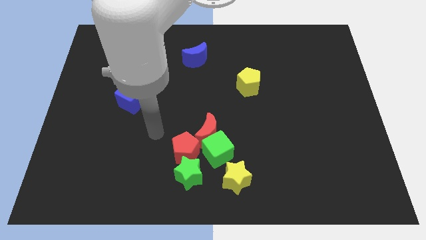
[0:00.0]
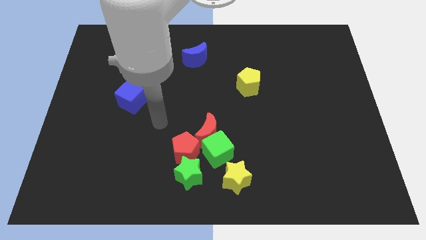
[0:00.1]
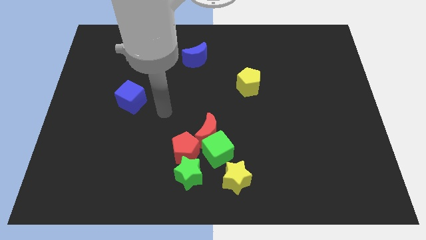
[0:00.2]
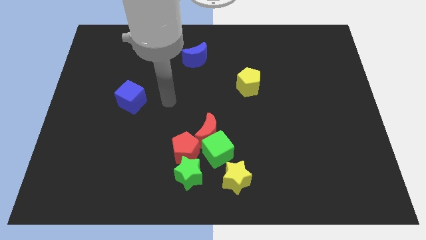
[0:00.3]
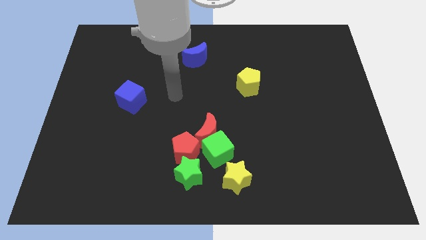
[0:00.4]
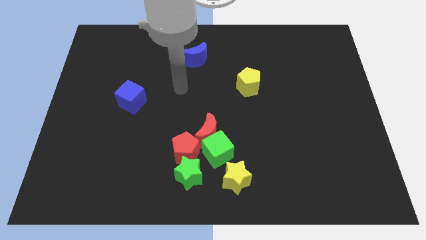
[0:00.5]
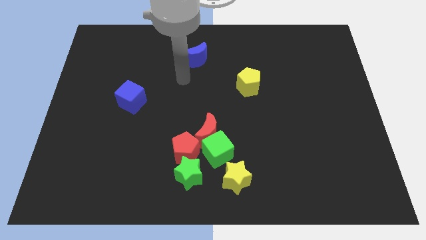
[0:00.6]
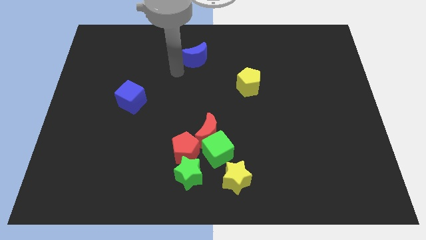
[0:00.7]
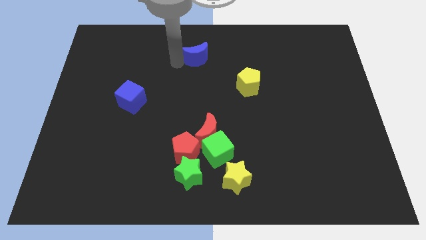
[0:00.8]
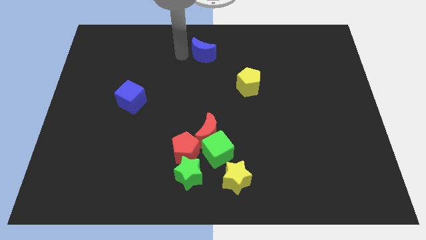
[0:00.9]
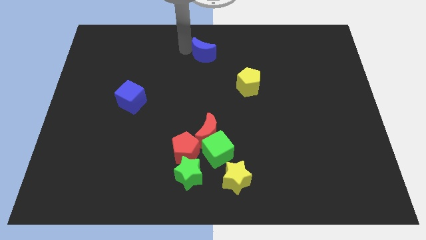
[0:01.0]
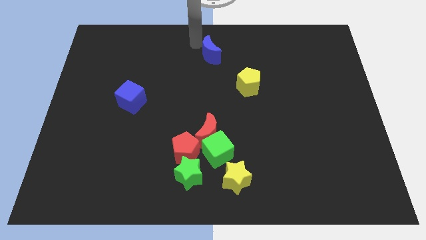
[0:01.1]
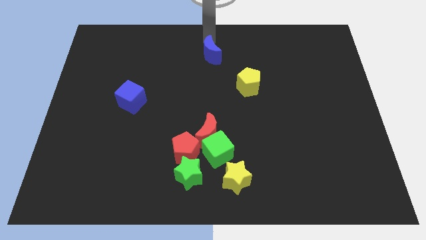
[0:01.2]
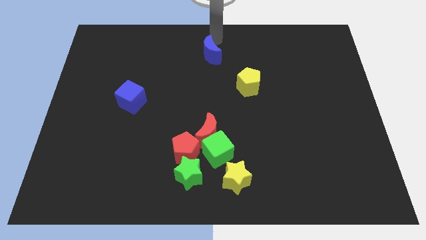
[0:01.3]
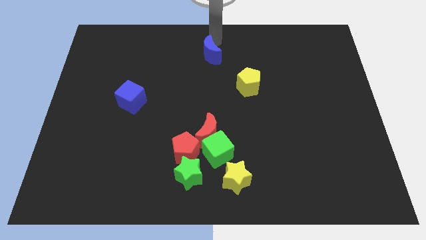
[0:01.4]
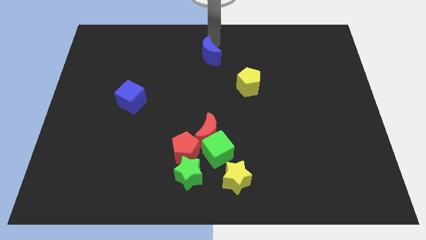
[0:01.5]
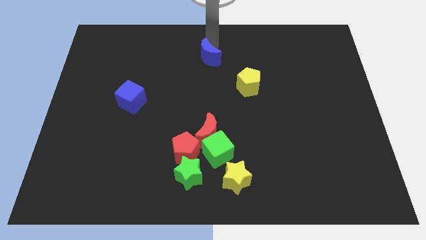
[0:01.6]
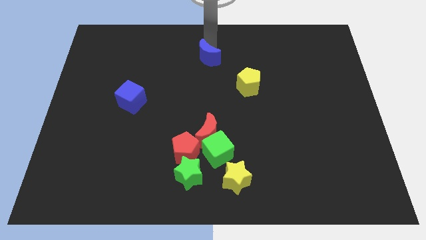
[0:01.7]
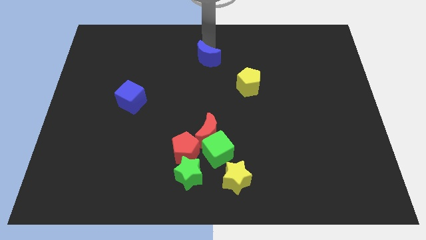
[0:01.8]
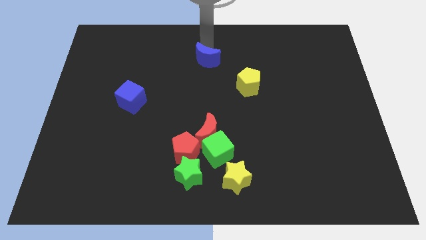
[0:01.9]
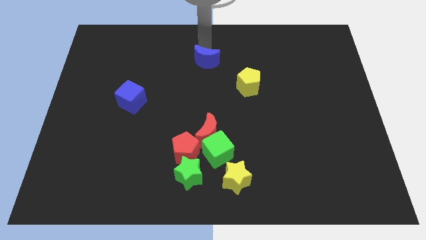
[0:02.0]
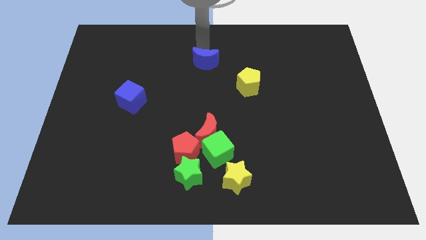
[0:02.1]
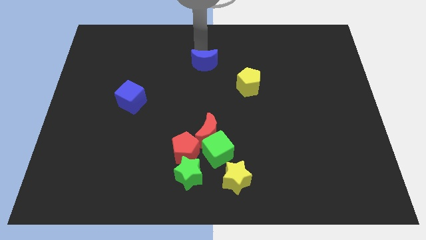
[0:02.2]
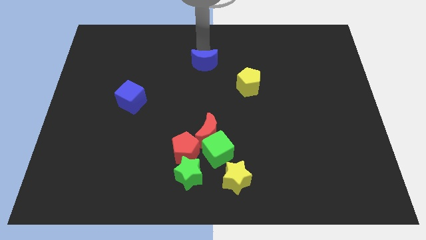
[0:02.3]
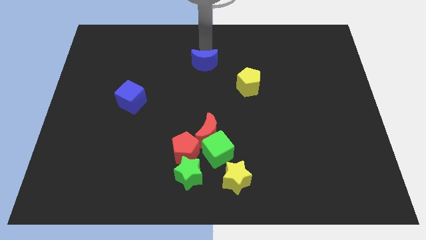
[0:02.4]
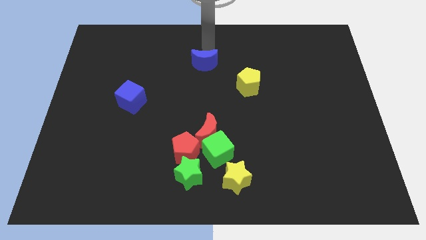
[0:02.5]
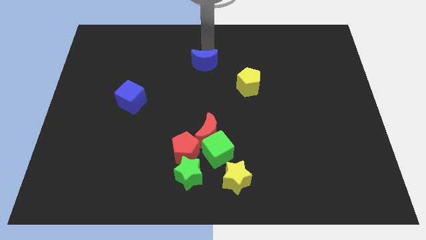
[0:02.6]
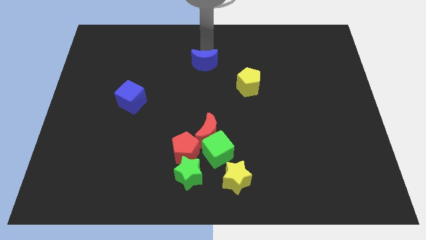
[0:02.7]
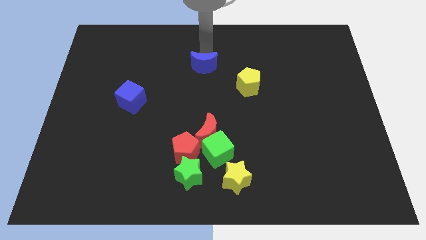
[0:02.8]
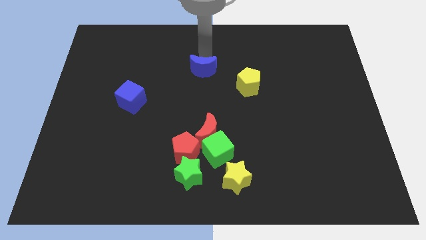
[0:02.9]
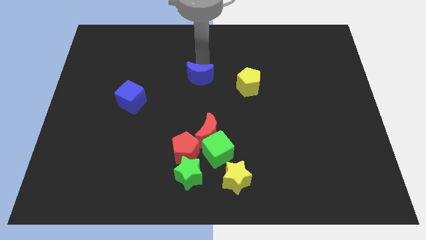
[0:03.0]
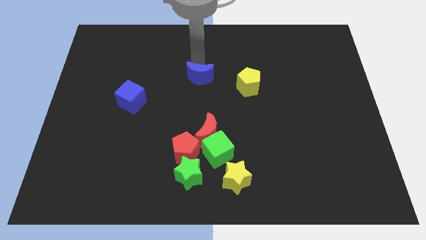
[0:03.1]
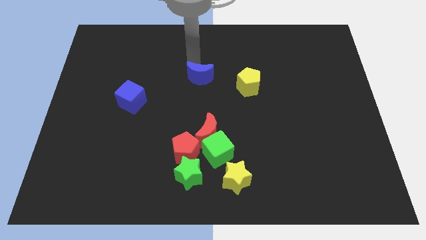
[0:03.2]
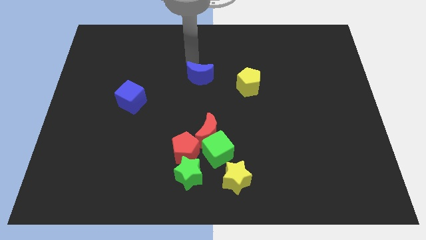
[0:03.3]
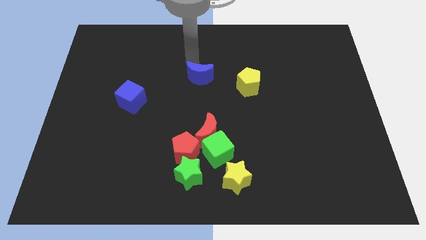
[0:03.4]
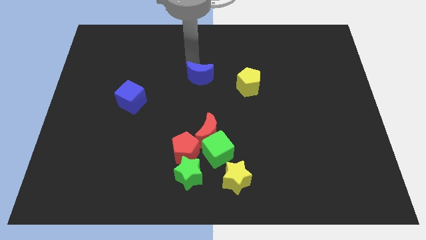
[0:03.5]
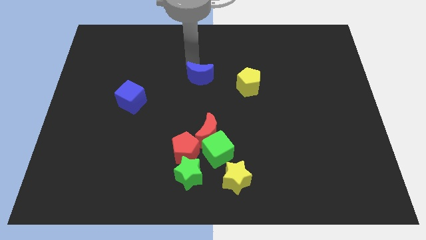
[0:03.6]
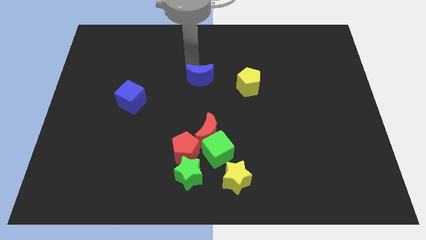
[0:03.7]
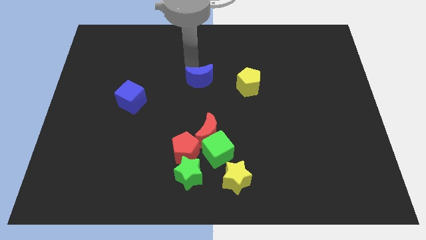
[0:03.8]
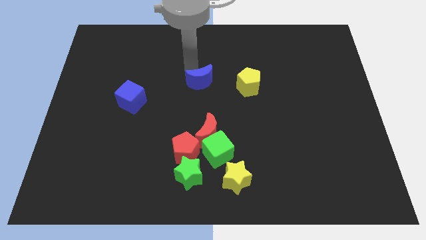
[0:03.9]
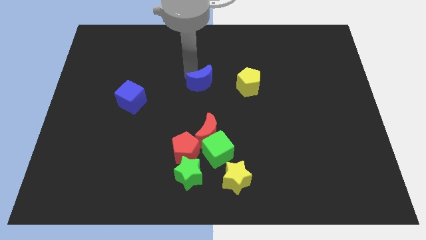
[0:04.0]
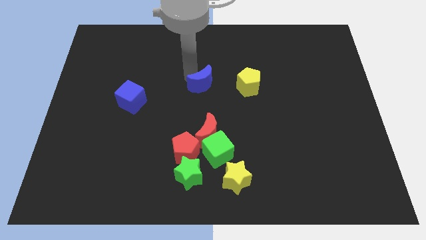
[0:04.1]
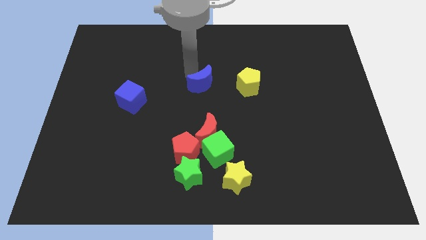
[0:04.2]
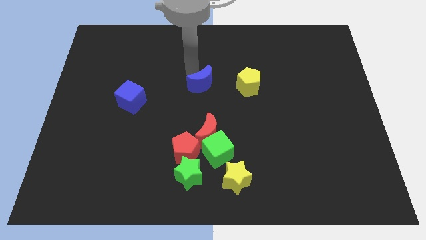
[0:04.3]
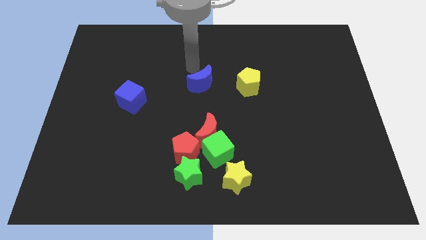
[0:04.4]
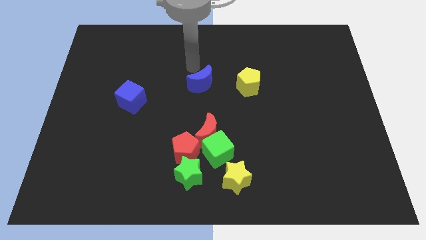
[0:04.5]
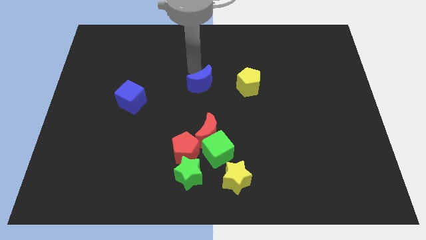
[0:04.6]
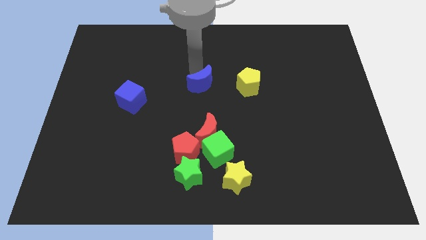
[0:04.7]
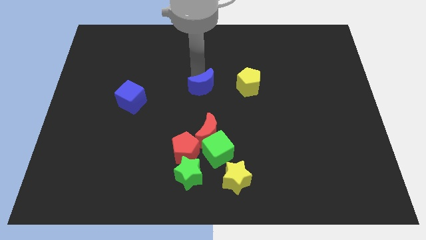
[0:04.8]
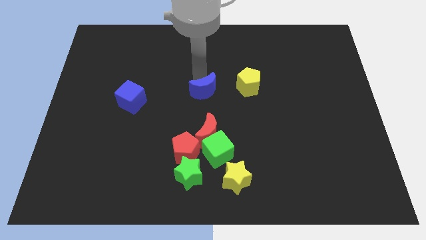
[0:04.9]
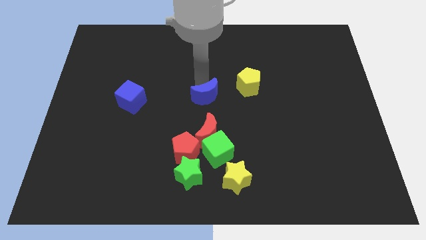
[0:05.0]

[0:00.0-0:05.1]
put the blue moon above the green cube

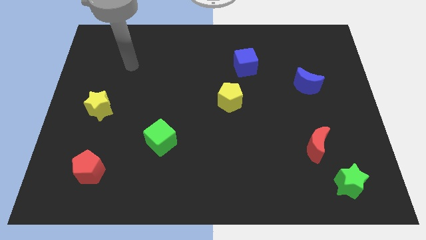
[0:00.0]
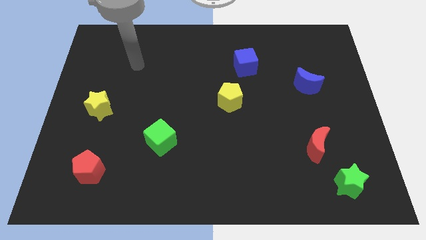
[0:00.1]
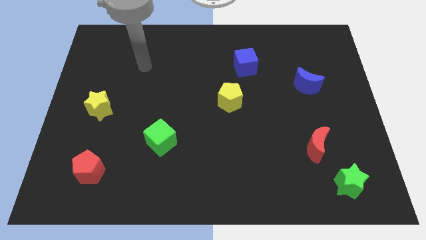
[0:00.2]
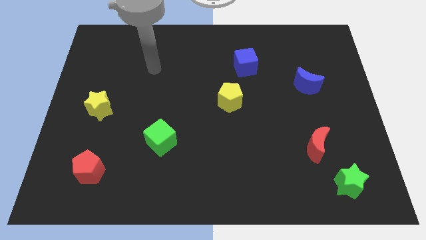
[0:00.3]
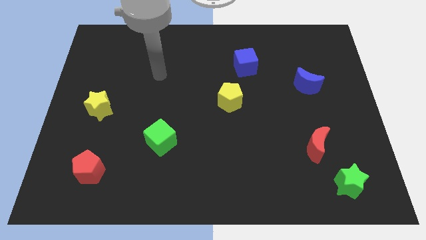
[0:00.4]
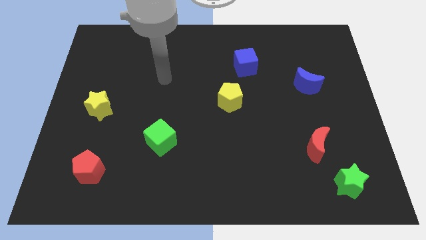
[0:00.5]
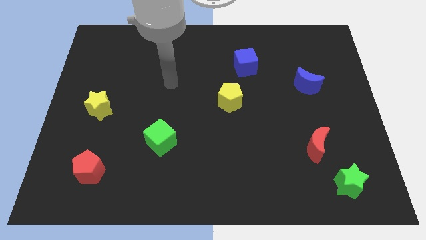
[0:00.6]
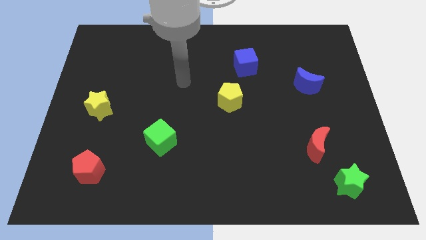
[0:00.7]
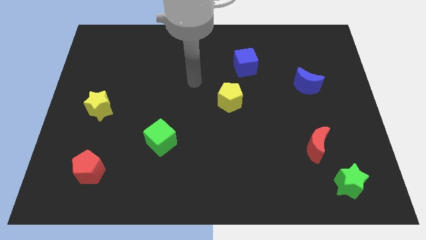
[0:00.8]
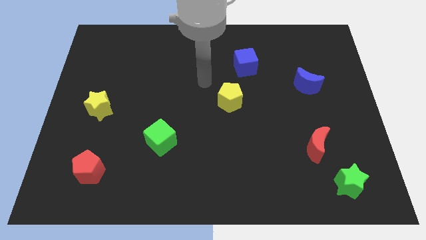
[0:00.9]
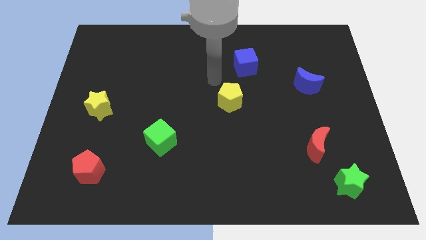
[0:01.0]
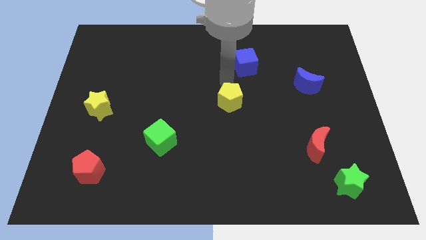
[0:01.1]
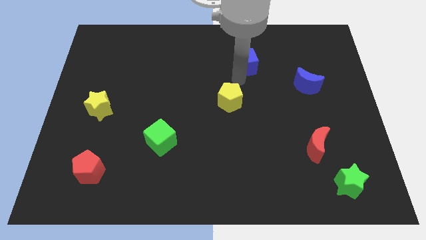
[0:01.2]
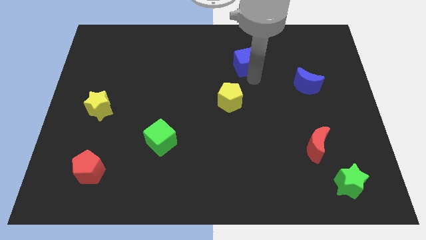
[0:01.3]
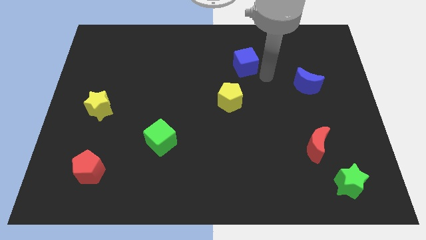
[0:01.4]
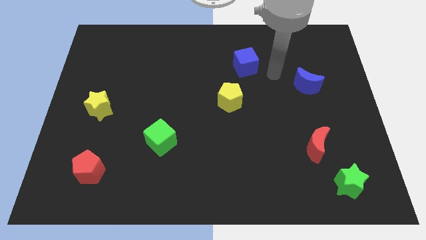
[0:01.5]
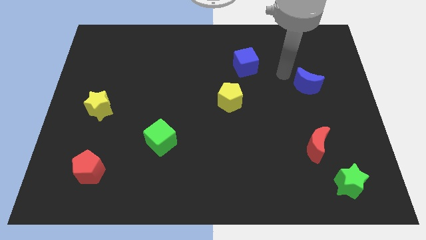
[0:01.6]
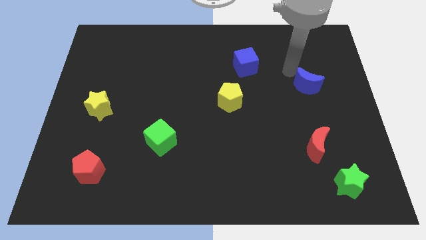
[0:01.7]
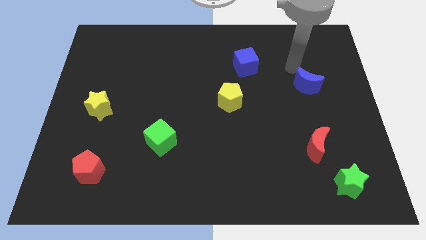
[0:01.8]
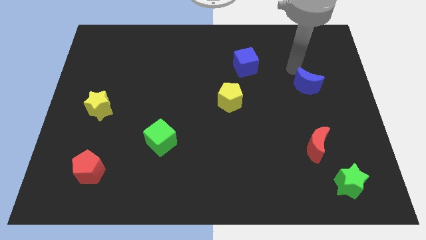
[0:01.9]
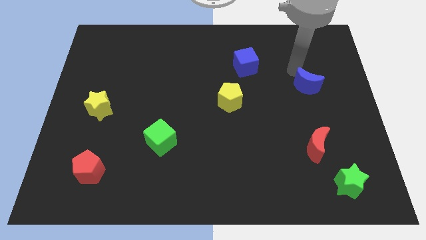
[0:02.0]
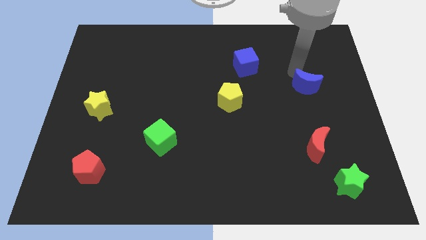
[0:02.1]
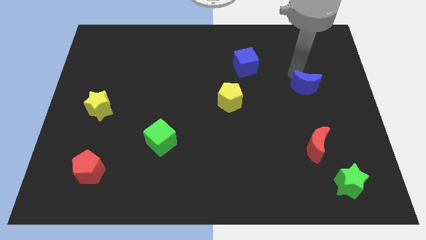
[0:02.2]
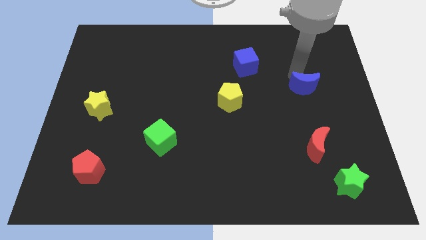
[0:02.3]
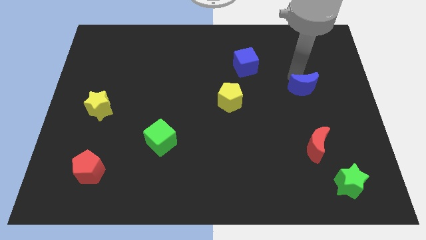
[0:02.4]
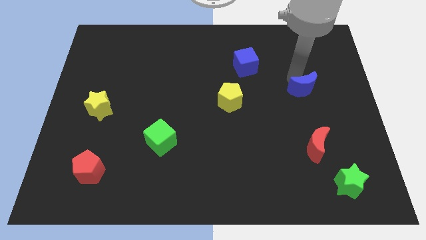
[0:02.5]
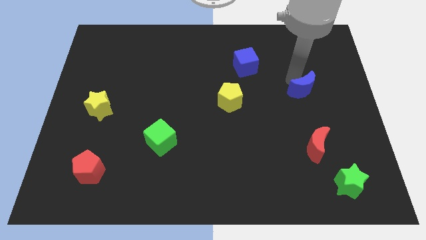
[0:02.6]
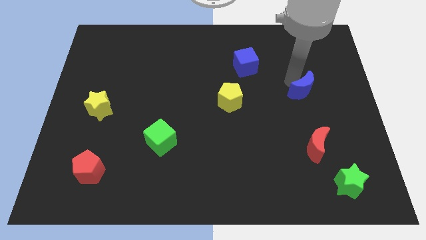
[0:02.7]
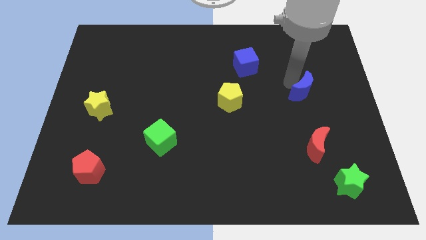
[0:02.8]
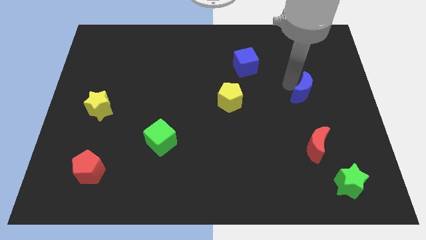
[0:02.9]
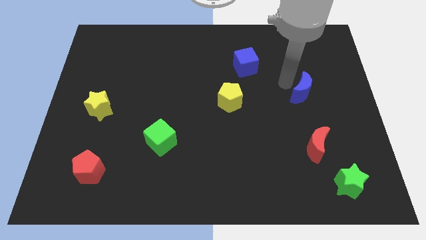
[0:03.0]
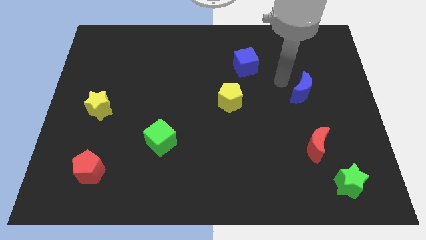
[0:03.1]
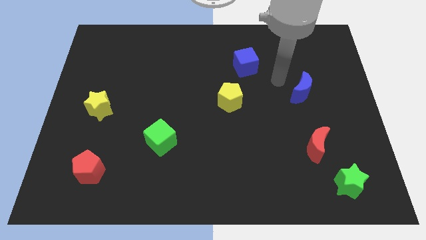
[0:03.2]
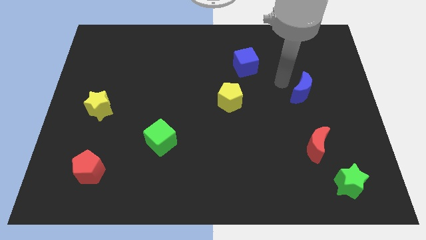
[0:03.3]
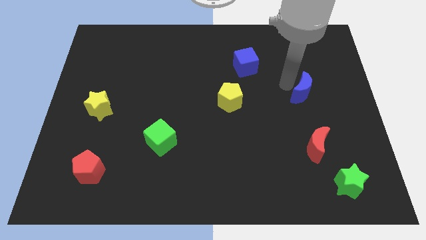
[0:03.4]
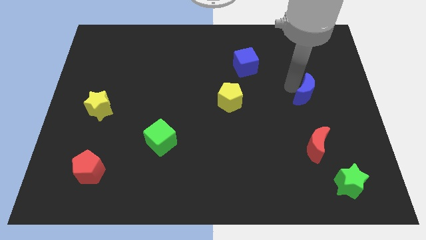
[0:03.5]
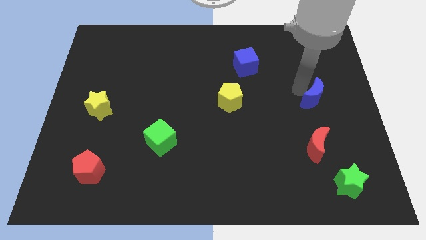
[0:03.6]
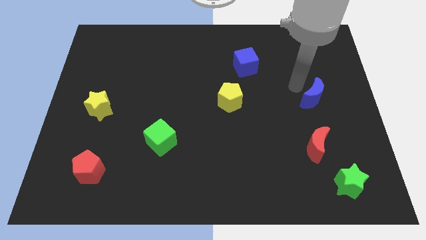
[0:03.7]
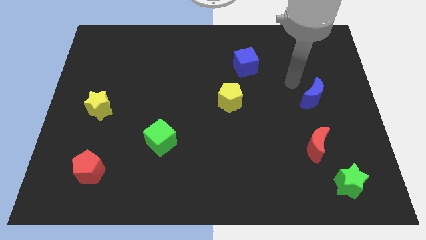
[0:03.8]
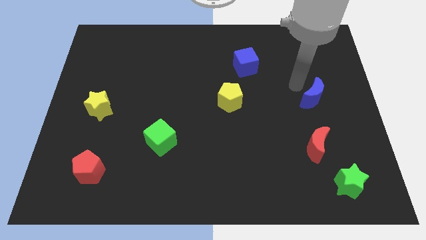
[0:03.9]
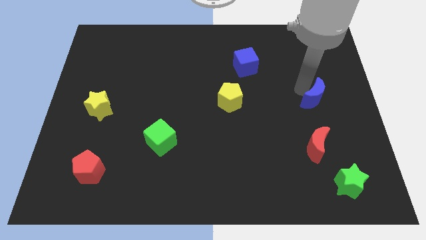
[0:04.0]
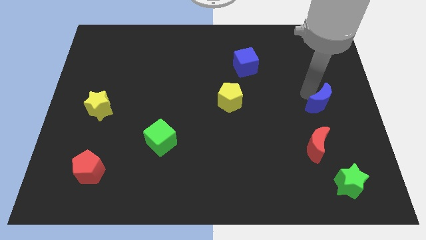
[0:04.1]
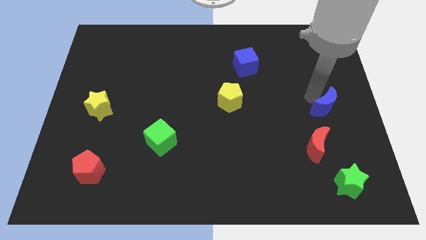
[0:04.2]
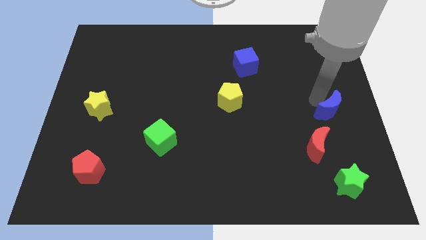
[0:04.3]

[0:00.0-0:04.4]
put the blue moon to the top right side of the red moon
